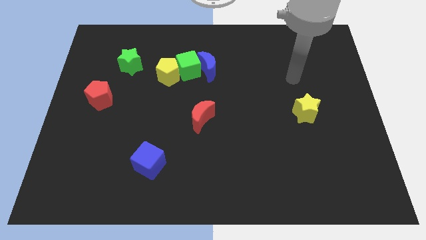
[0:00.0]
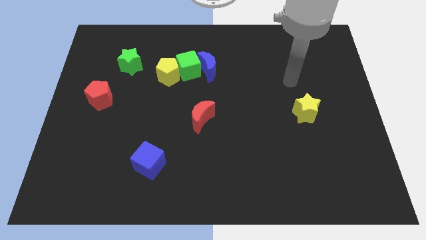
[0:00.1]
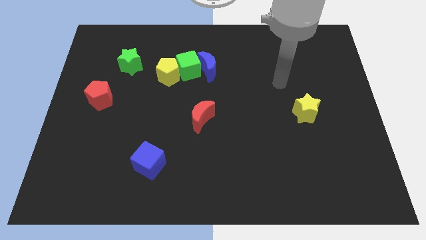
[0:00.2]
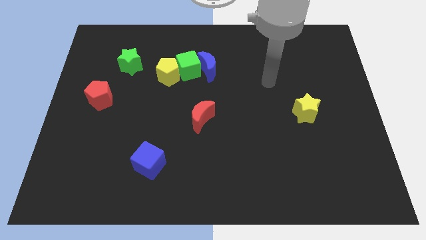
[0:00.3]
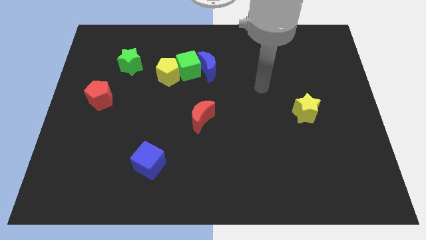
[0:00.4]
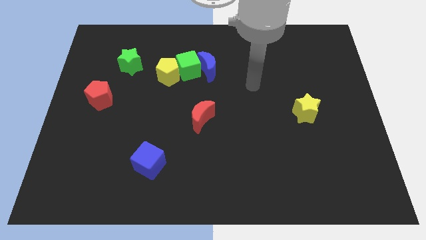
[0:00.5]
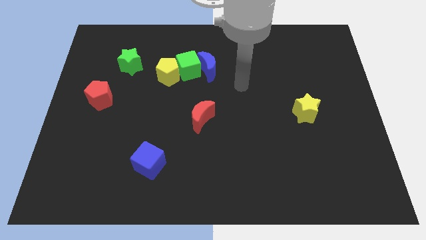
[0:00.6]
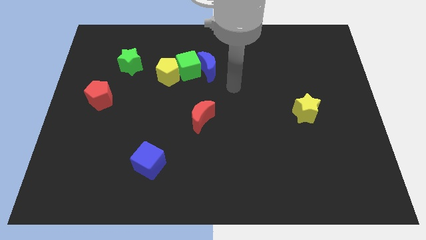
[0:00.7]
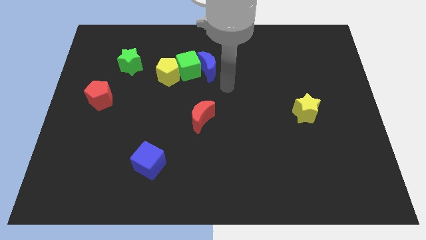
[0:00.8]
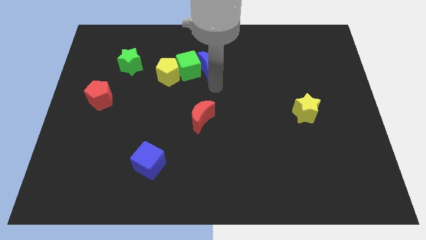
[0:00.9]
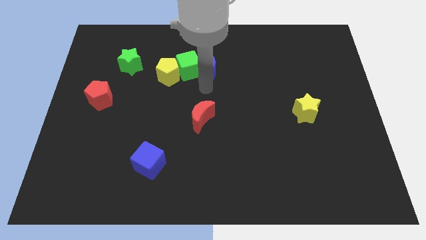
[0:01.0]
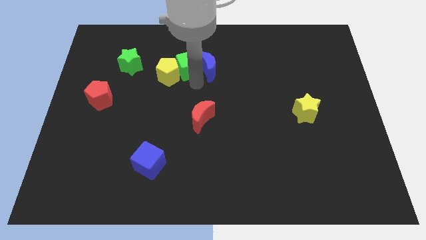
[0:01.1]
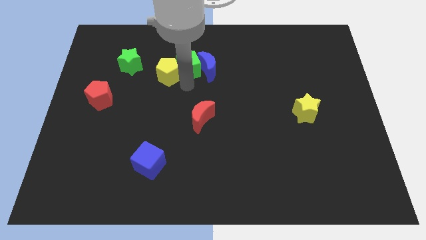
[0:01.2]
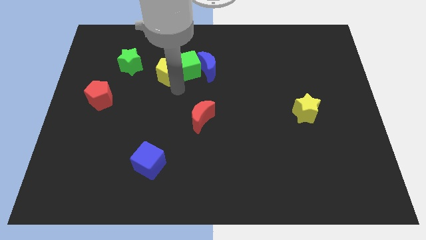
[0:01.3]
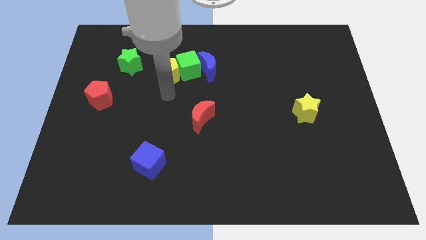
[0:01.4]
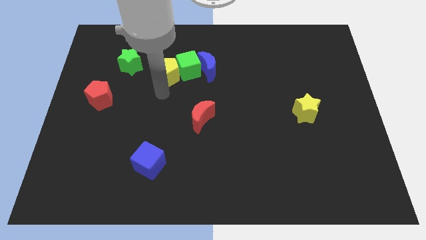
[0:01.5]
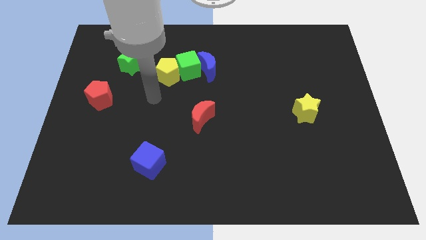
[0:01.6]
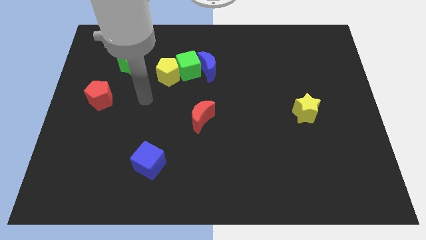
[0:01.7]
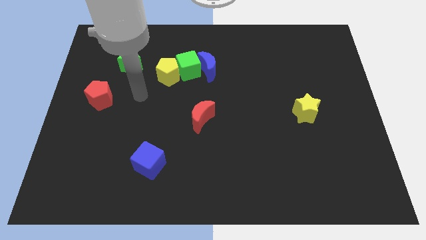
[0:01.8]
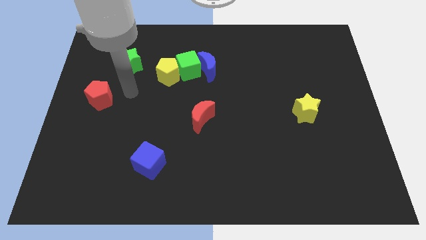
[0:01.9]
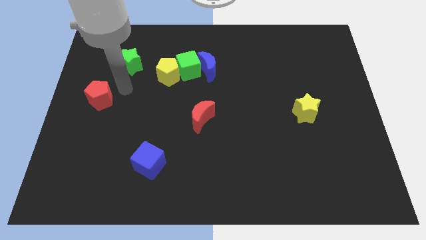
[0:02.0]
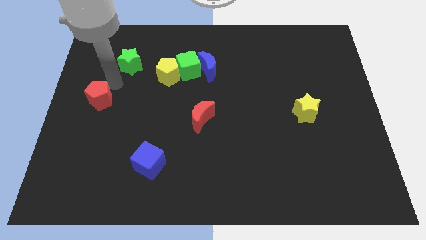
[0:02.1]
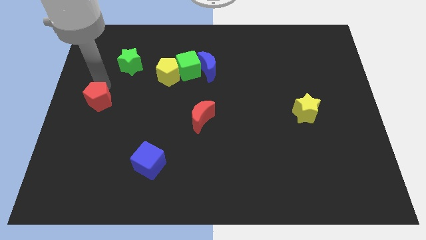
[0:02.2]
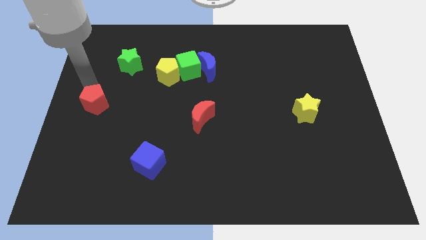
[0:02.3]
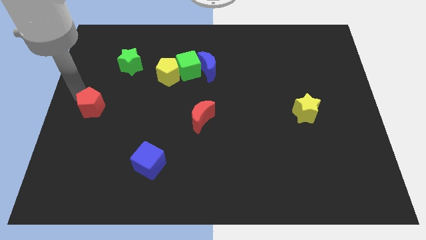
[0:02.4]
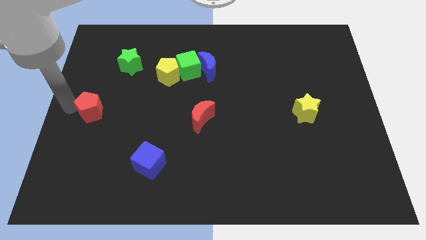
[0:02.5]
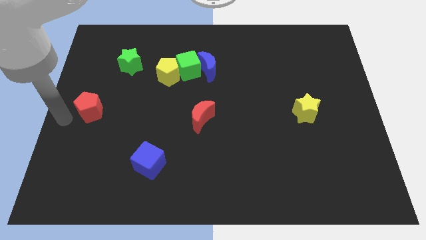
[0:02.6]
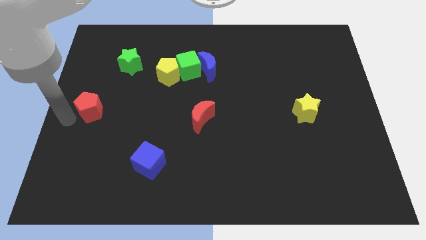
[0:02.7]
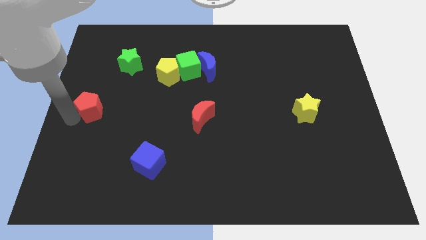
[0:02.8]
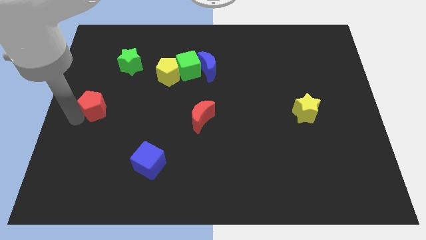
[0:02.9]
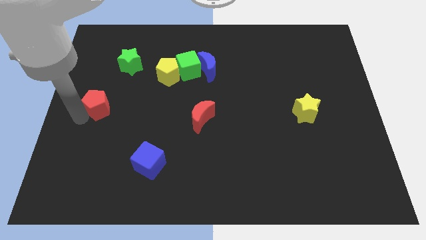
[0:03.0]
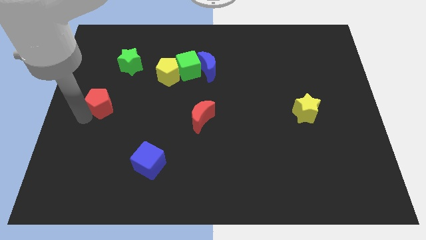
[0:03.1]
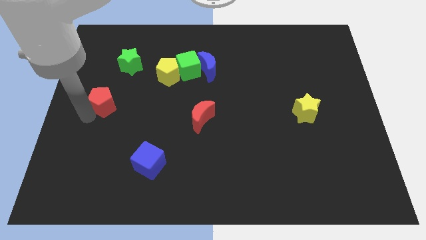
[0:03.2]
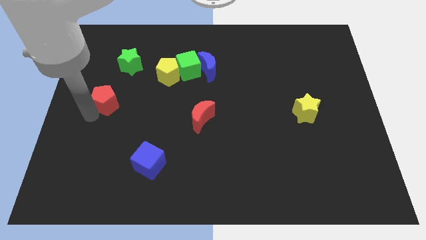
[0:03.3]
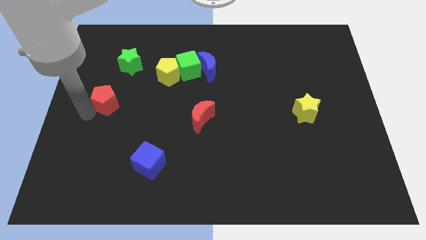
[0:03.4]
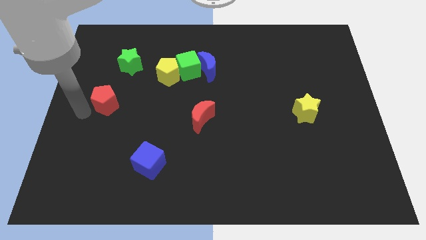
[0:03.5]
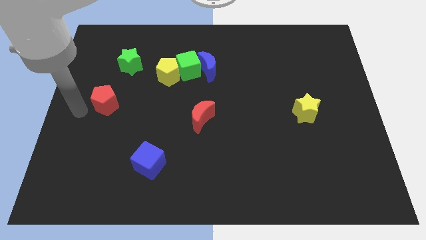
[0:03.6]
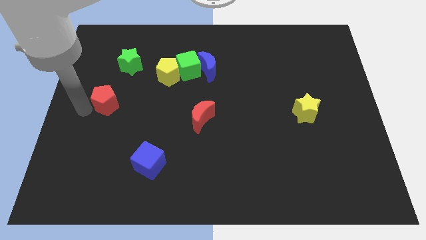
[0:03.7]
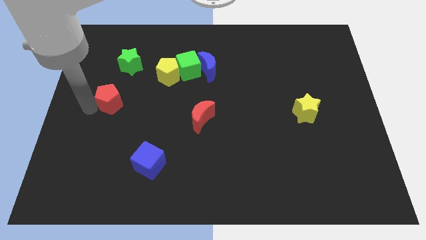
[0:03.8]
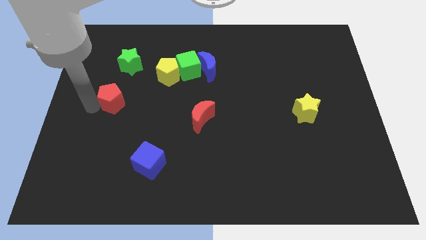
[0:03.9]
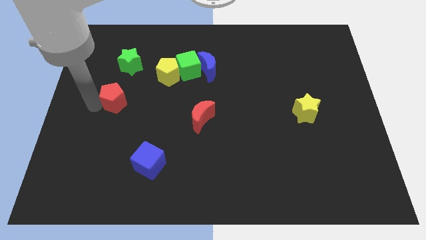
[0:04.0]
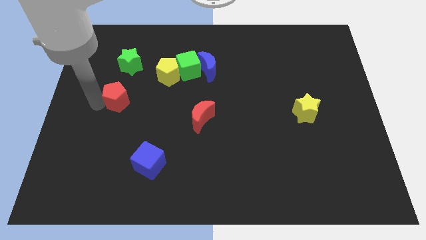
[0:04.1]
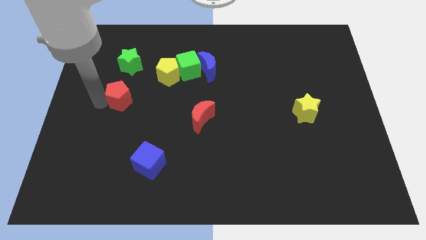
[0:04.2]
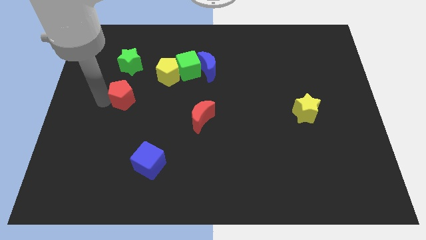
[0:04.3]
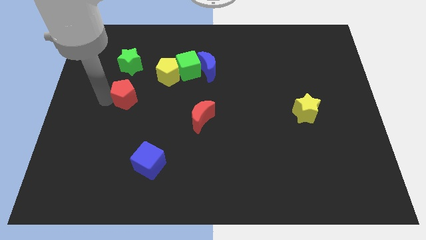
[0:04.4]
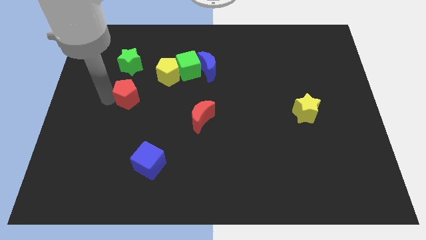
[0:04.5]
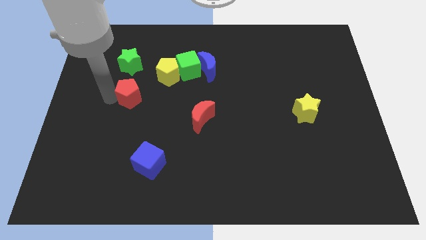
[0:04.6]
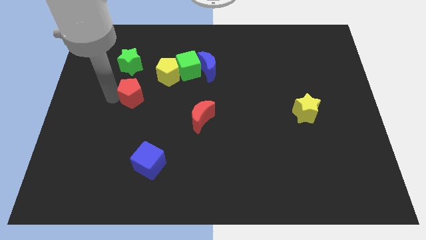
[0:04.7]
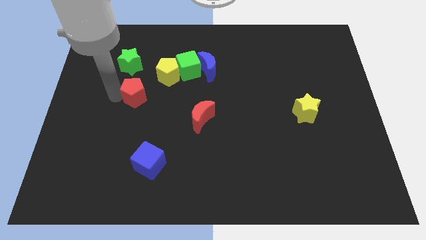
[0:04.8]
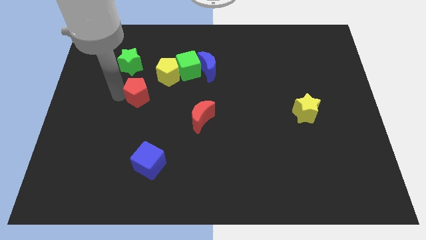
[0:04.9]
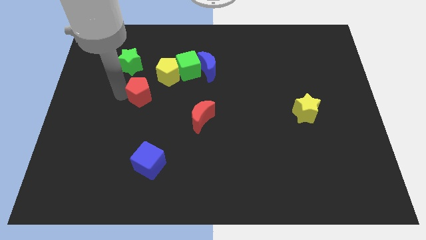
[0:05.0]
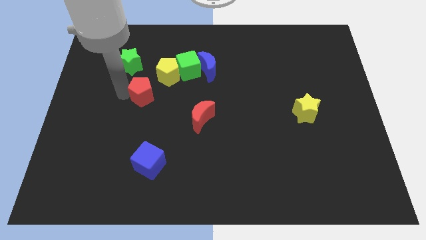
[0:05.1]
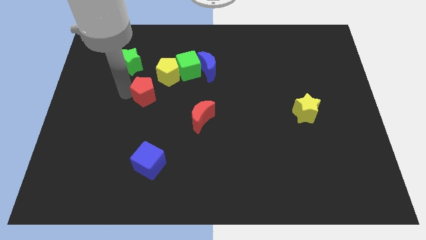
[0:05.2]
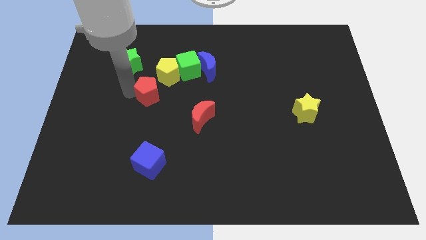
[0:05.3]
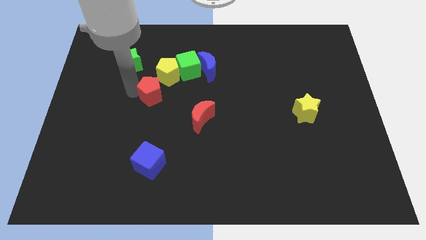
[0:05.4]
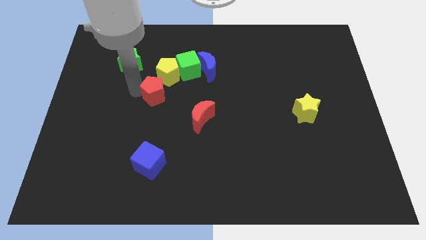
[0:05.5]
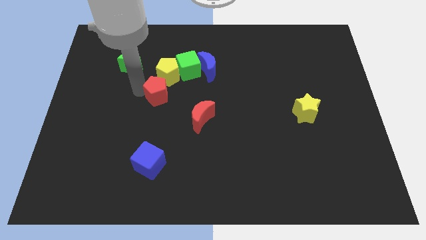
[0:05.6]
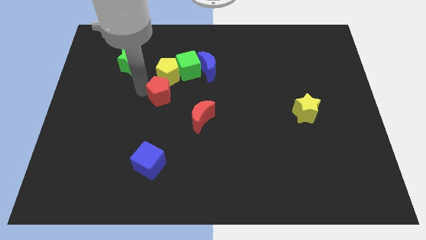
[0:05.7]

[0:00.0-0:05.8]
put the red pentagon to the middle of the board
